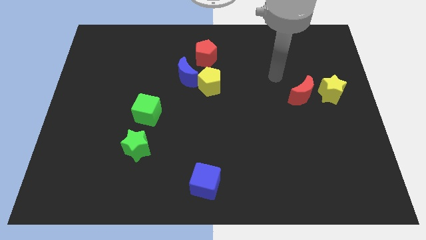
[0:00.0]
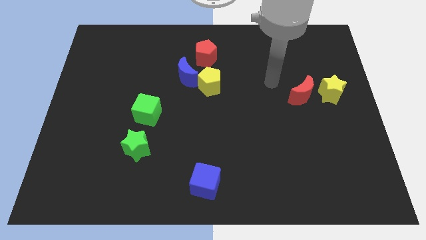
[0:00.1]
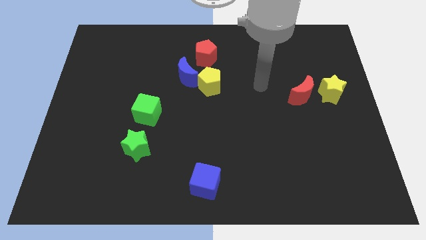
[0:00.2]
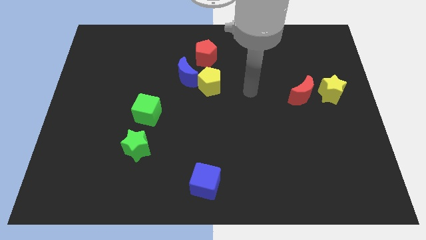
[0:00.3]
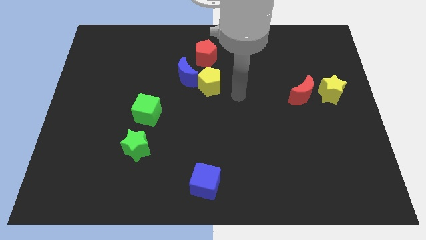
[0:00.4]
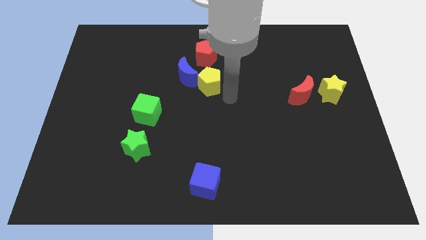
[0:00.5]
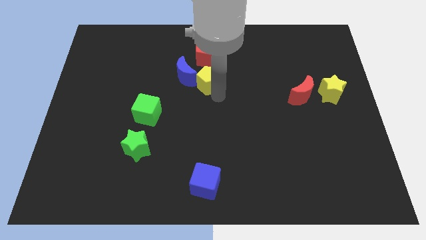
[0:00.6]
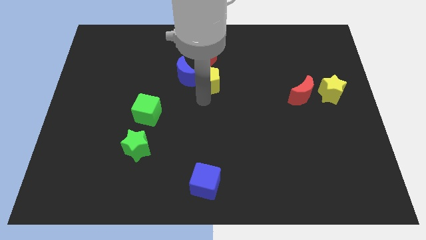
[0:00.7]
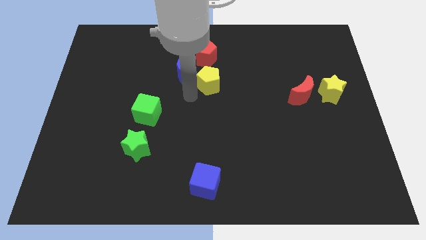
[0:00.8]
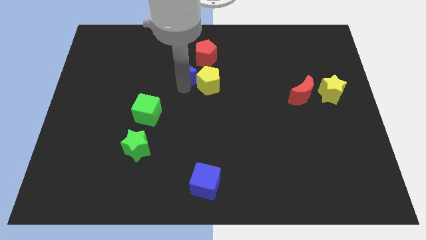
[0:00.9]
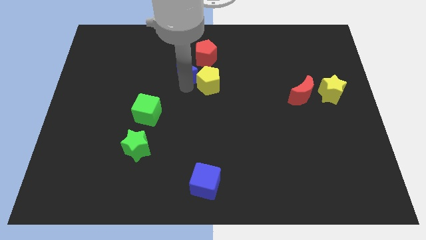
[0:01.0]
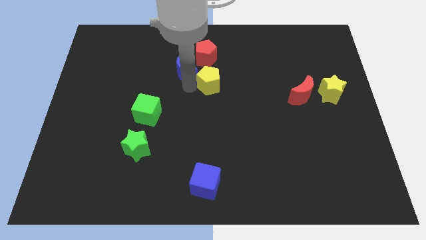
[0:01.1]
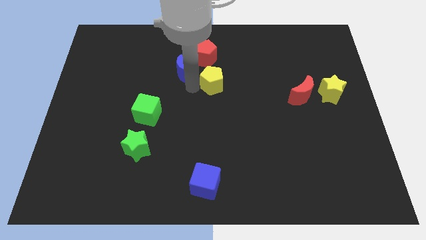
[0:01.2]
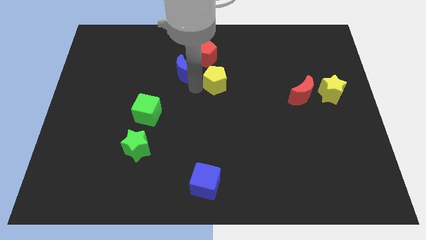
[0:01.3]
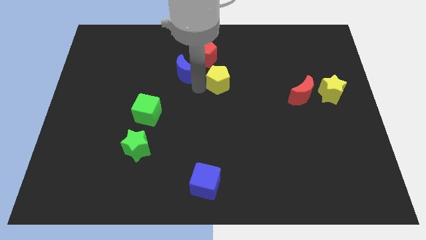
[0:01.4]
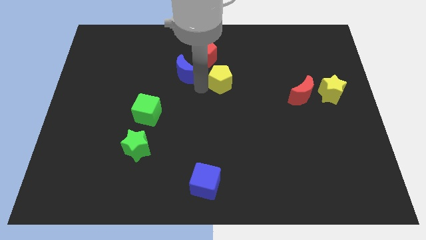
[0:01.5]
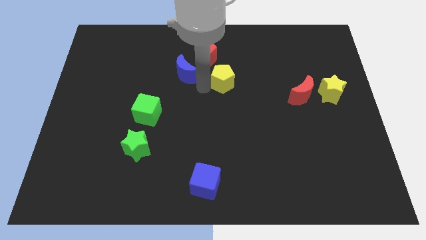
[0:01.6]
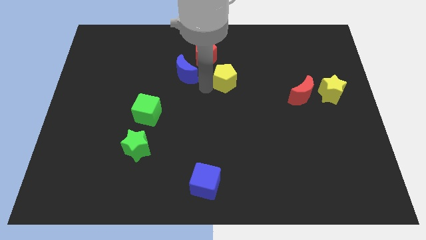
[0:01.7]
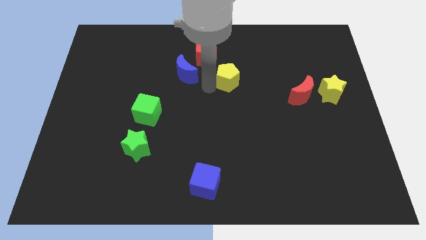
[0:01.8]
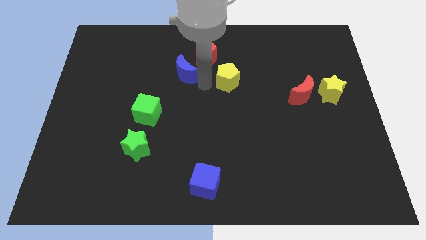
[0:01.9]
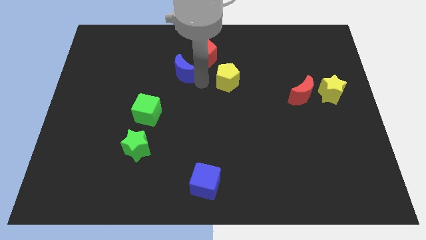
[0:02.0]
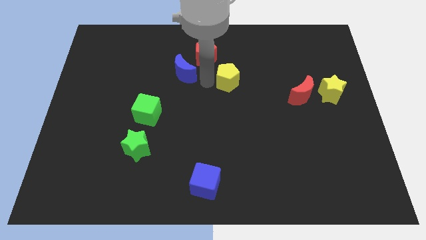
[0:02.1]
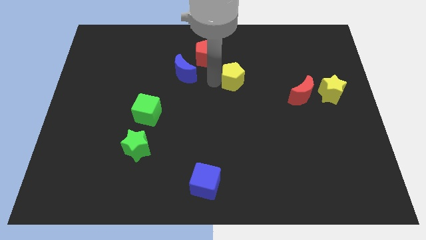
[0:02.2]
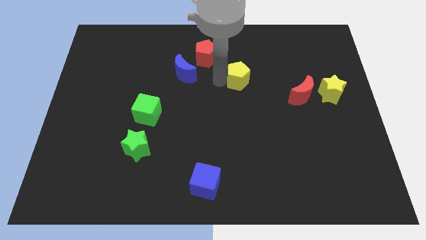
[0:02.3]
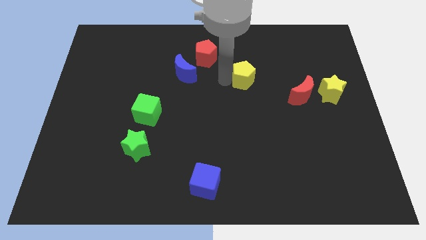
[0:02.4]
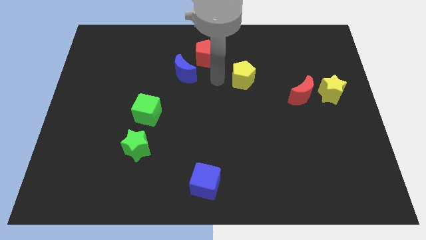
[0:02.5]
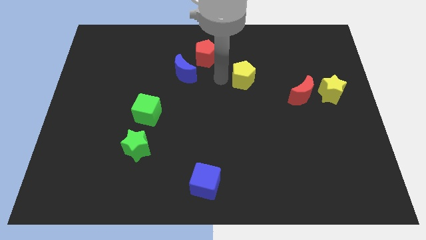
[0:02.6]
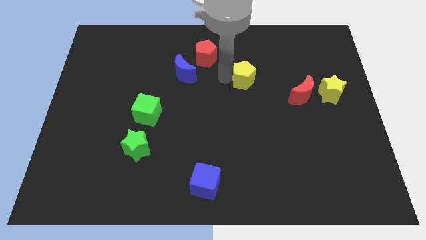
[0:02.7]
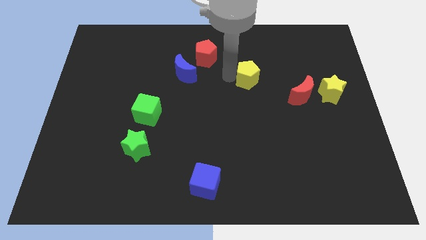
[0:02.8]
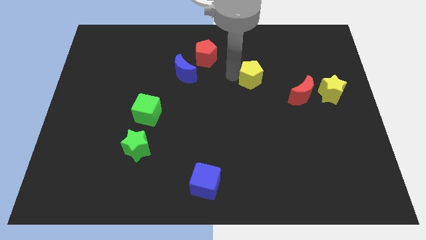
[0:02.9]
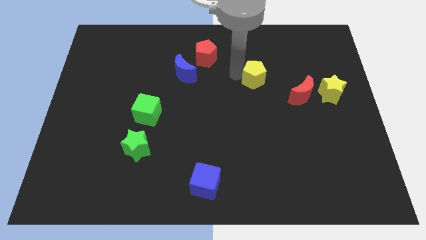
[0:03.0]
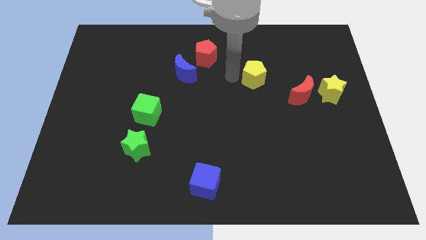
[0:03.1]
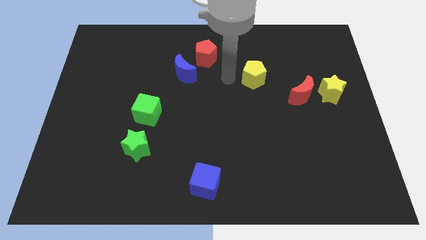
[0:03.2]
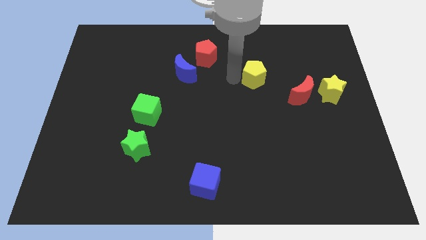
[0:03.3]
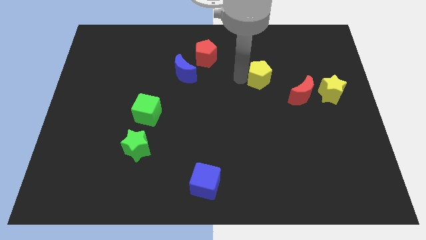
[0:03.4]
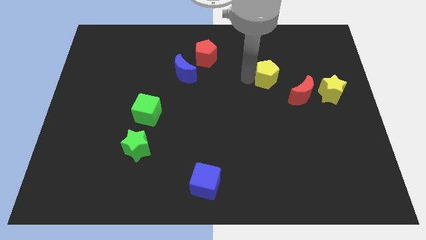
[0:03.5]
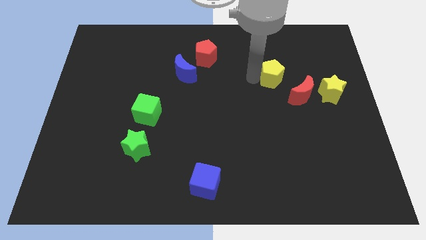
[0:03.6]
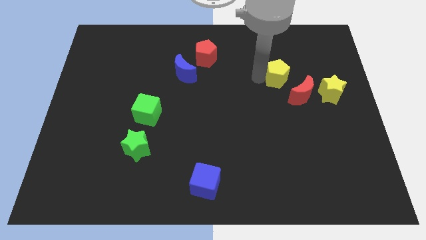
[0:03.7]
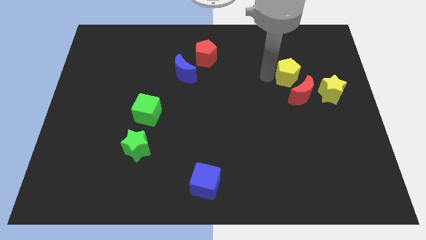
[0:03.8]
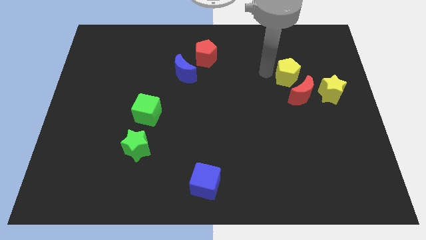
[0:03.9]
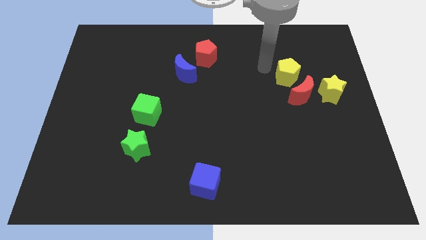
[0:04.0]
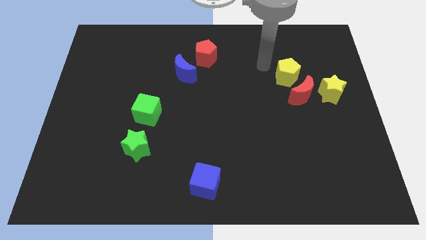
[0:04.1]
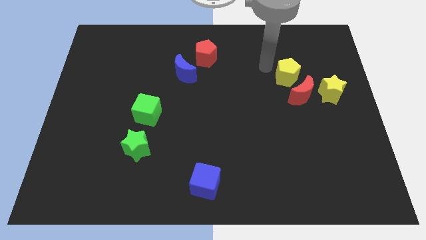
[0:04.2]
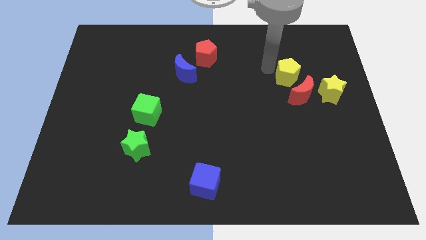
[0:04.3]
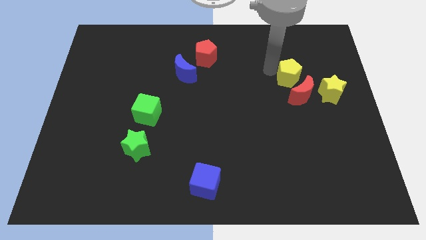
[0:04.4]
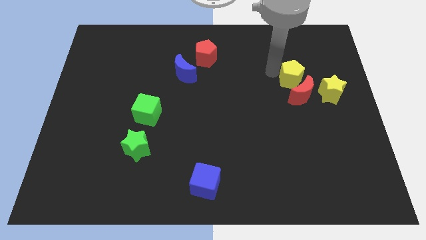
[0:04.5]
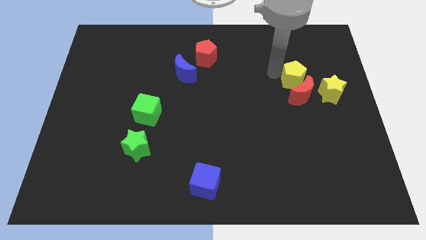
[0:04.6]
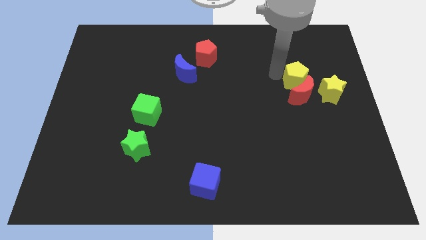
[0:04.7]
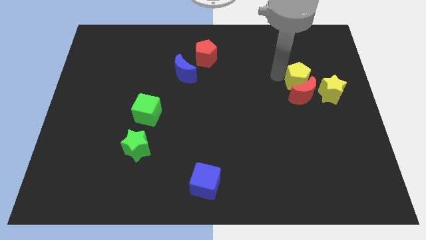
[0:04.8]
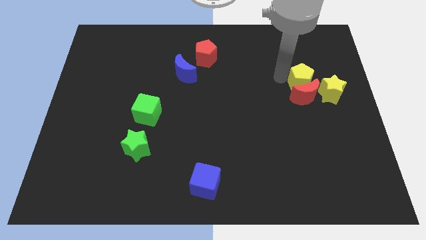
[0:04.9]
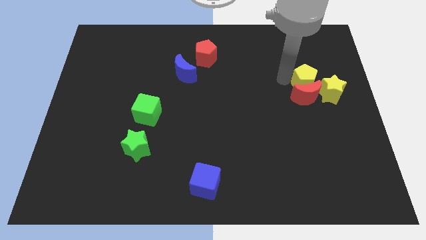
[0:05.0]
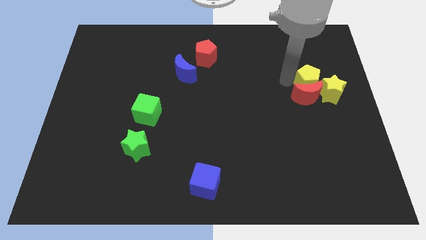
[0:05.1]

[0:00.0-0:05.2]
put the yellow pentagon close to the yellow star

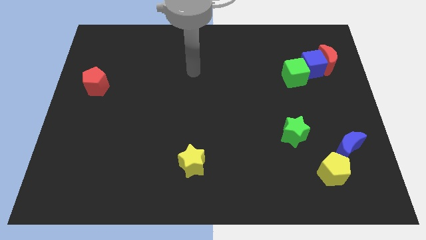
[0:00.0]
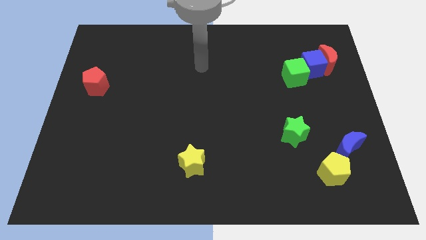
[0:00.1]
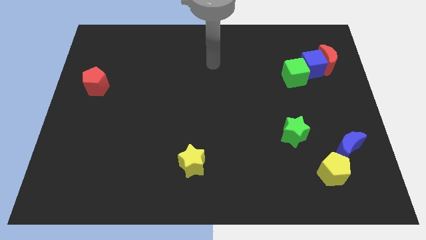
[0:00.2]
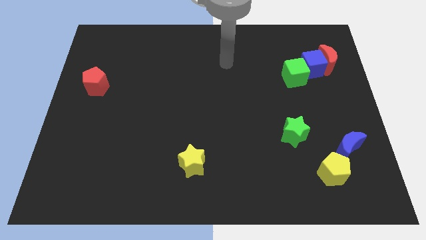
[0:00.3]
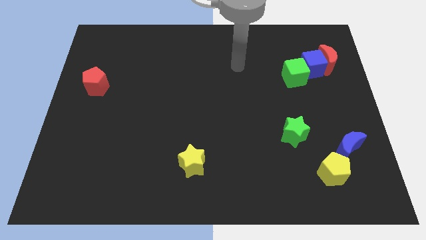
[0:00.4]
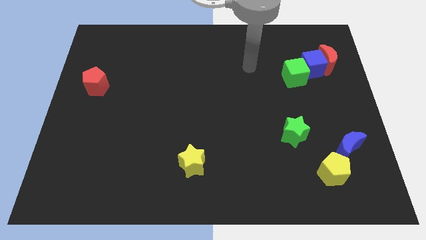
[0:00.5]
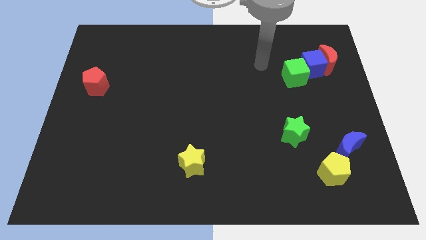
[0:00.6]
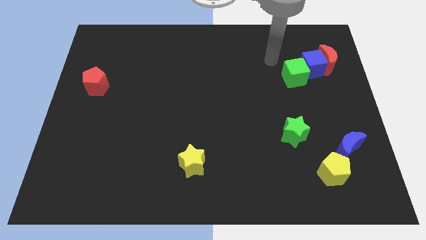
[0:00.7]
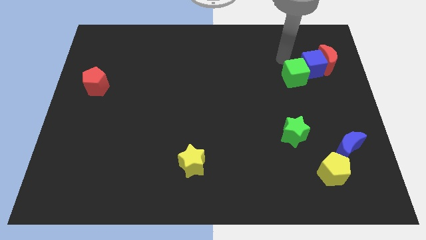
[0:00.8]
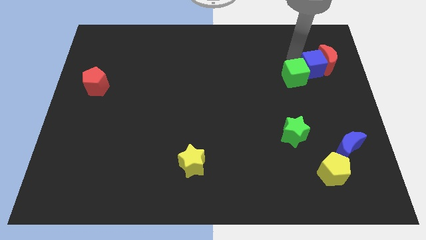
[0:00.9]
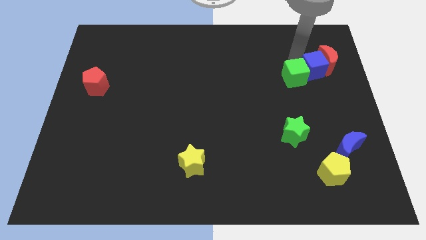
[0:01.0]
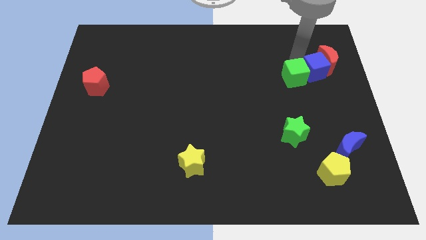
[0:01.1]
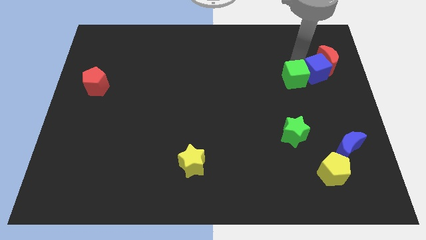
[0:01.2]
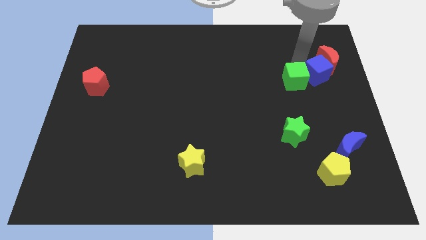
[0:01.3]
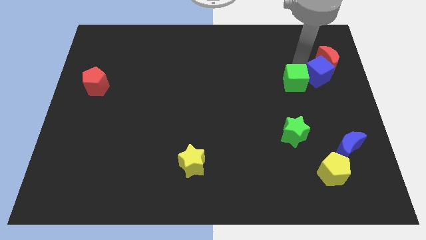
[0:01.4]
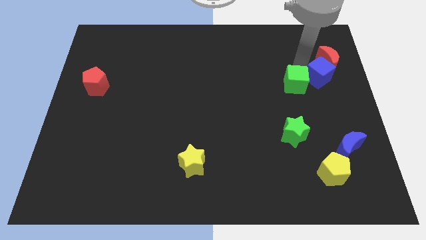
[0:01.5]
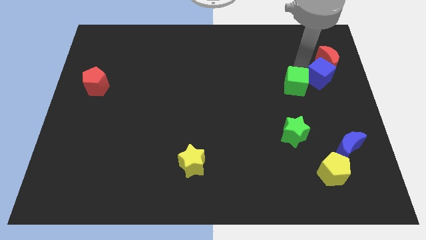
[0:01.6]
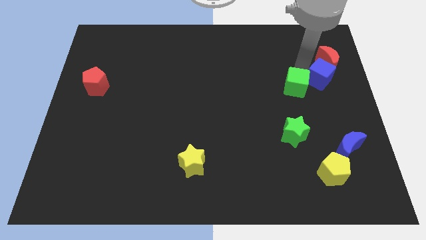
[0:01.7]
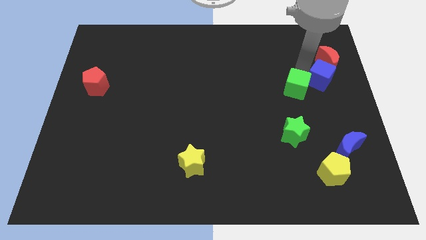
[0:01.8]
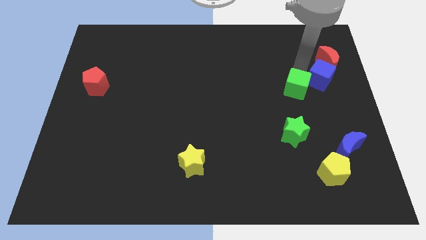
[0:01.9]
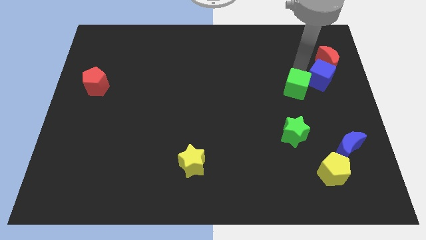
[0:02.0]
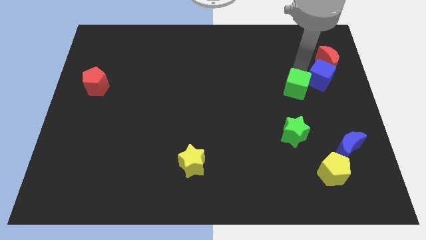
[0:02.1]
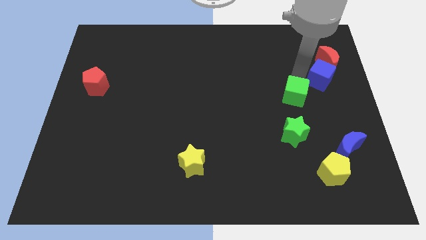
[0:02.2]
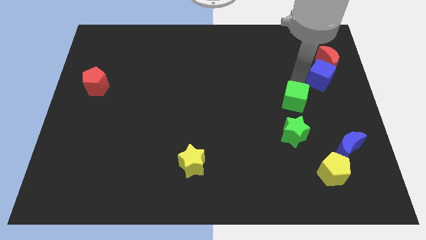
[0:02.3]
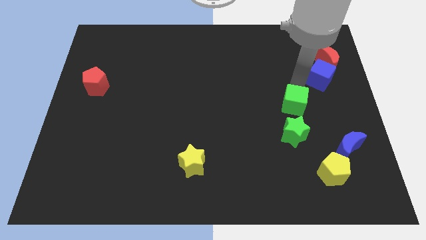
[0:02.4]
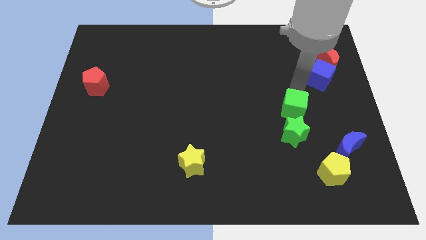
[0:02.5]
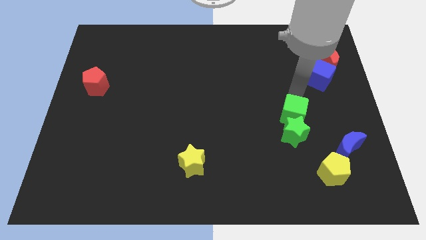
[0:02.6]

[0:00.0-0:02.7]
slide the green cube close to the green star
